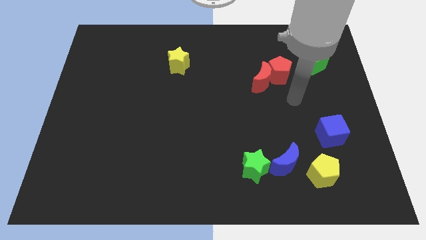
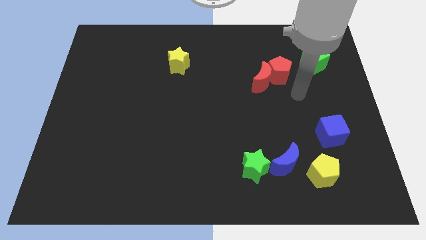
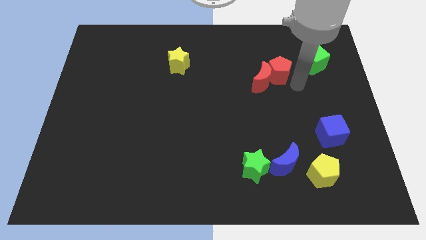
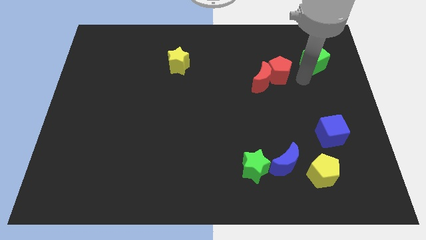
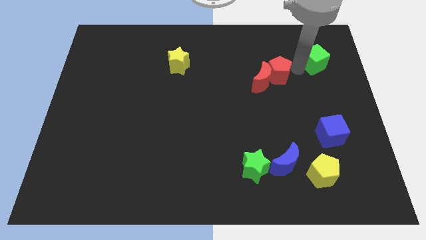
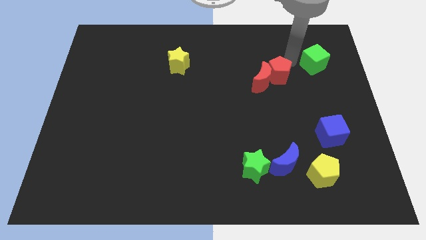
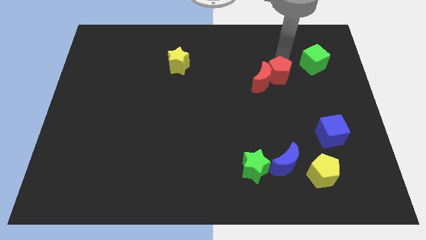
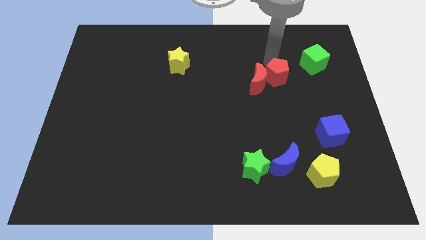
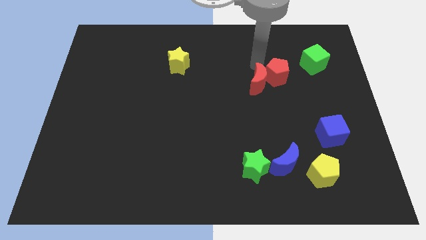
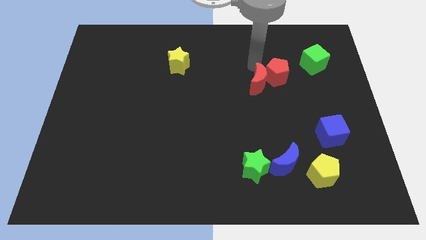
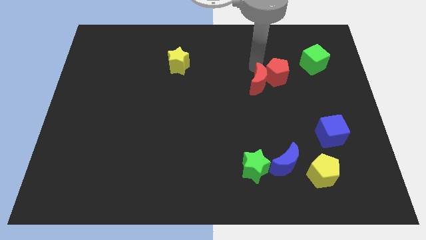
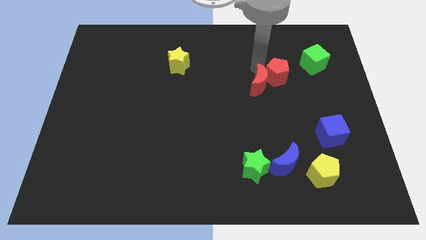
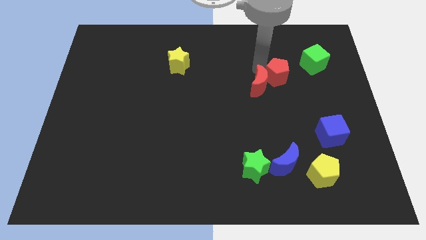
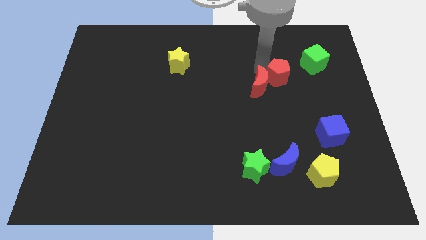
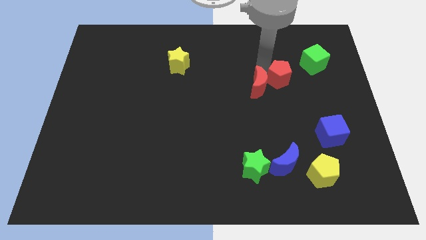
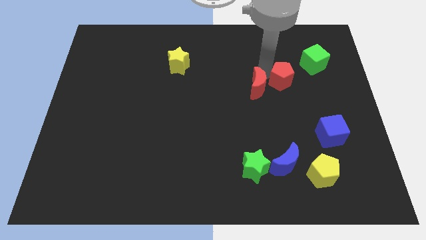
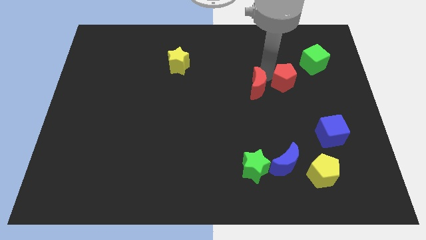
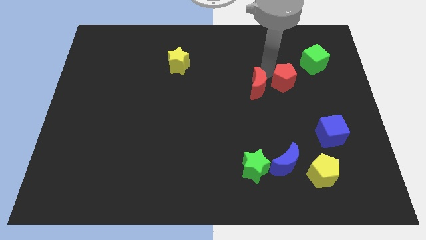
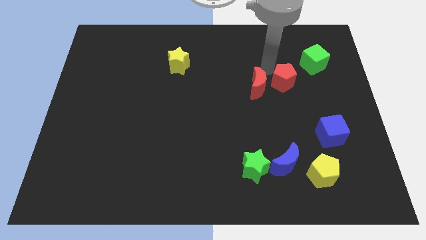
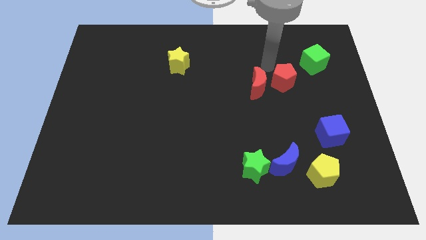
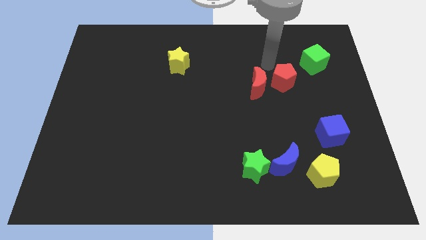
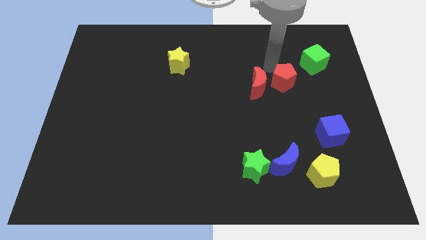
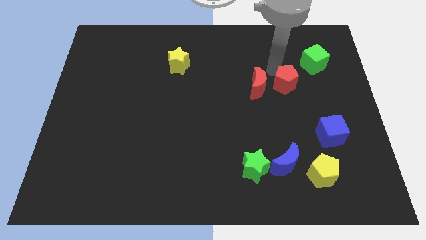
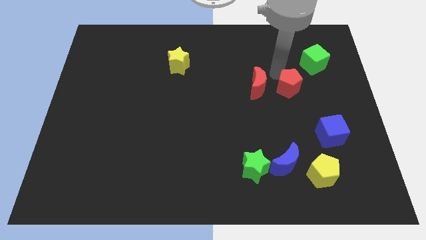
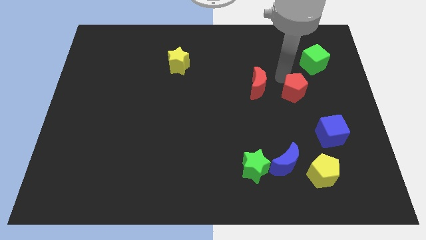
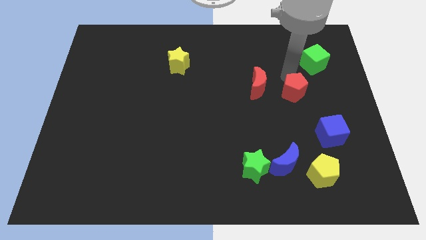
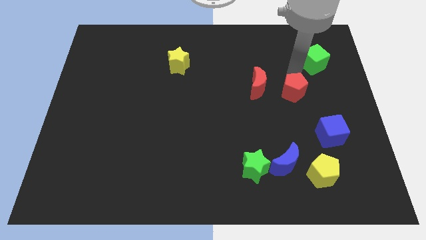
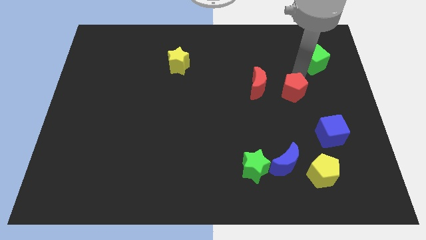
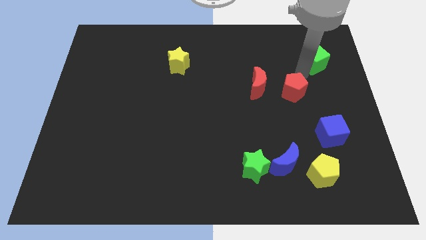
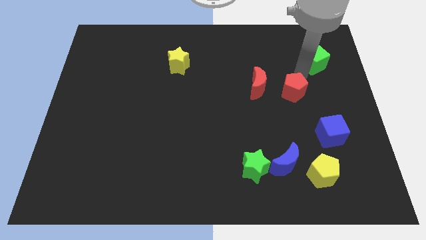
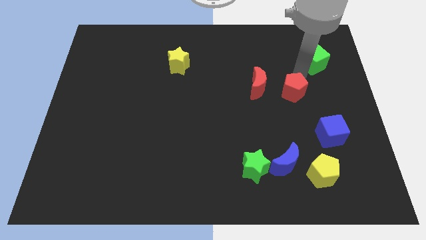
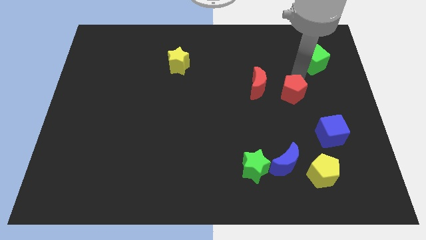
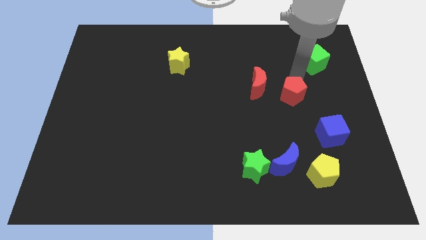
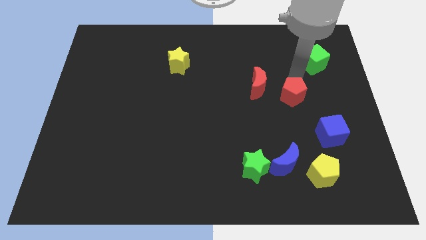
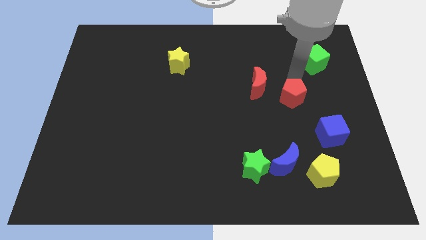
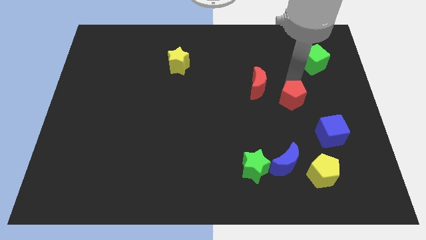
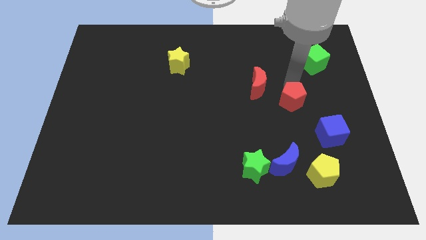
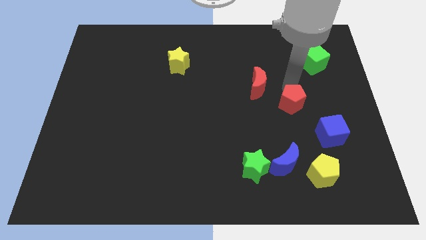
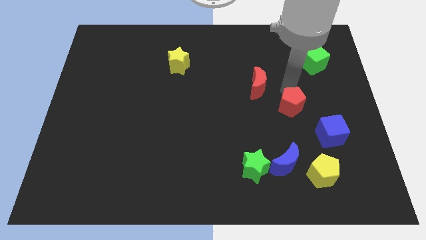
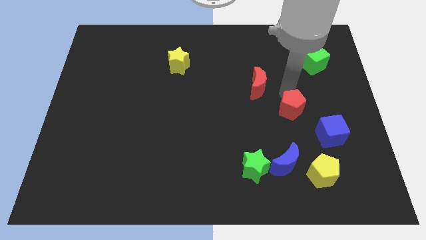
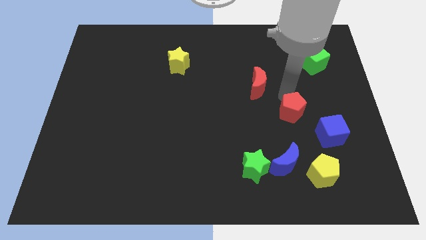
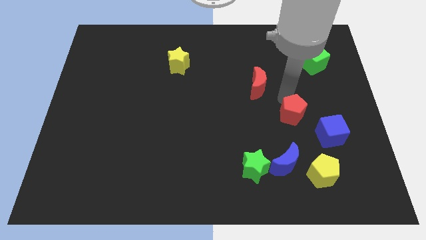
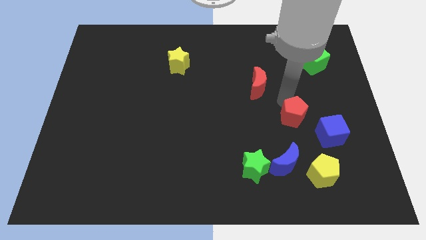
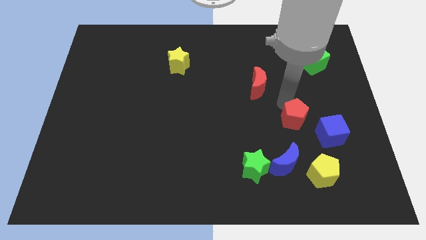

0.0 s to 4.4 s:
put the red pentagon just left of the blue cube

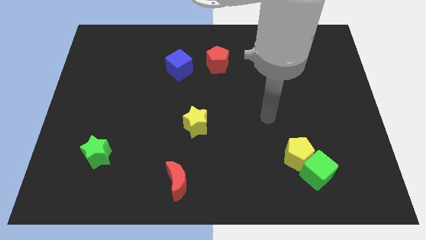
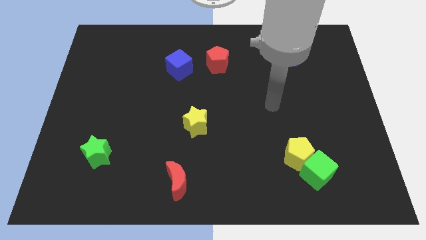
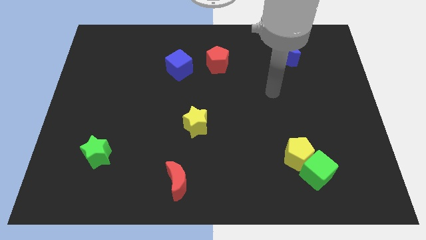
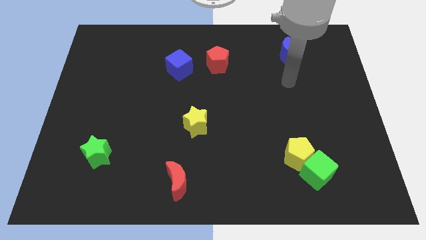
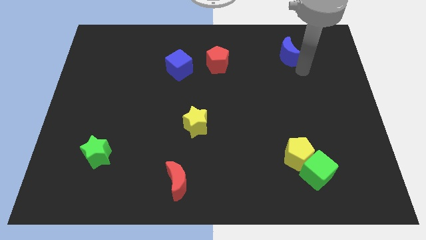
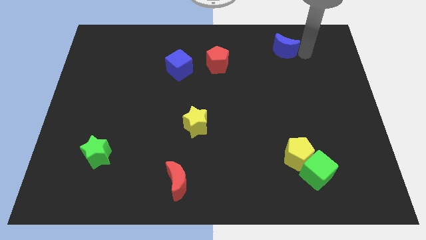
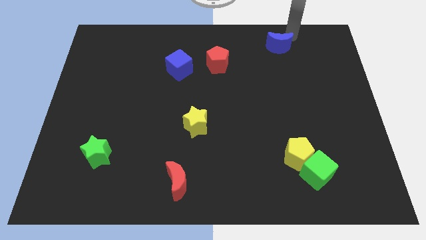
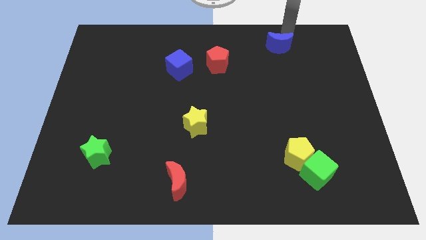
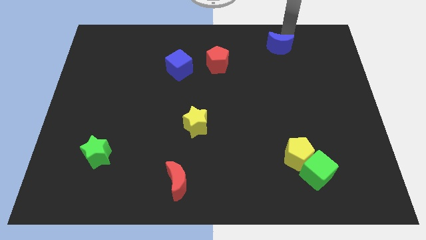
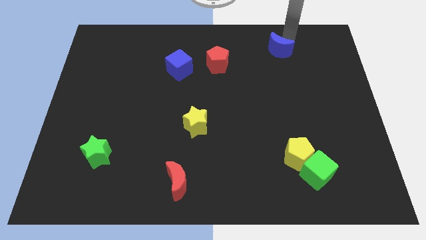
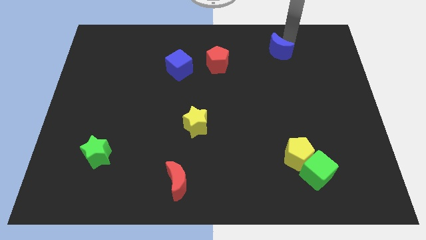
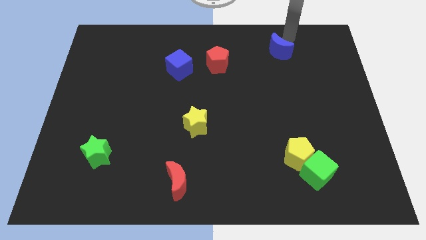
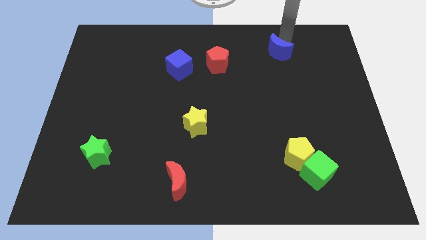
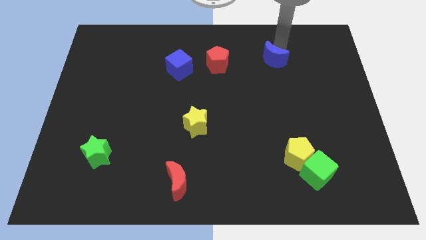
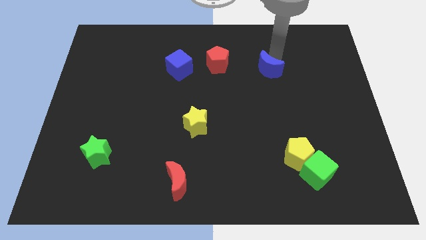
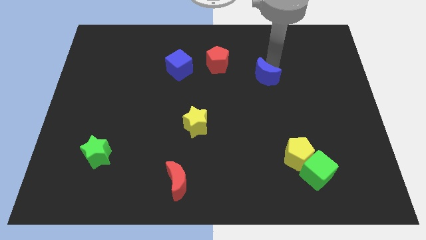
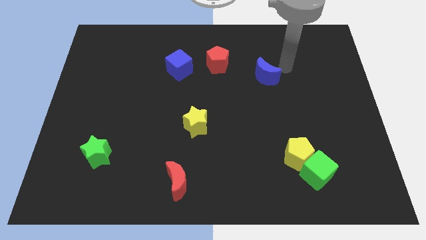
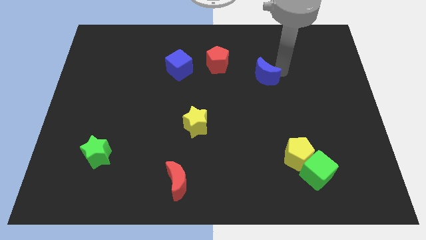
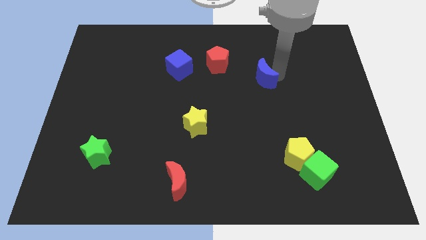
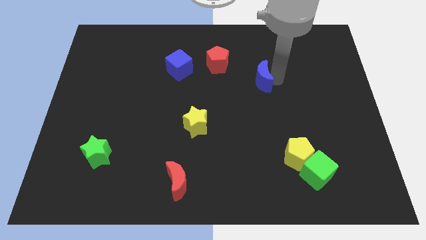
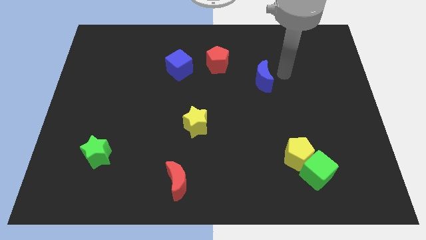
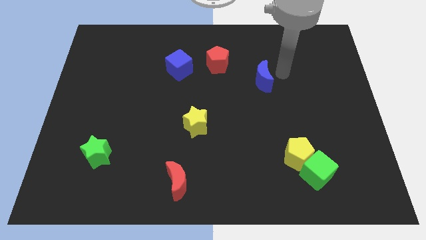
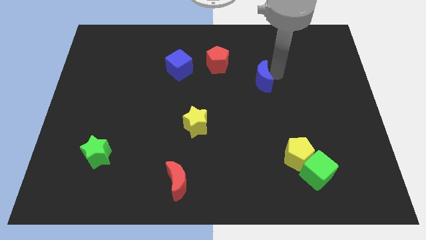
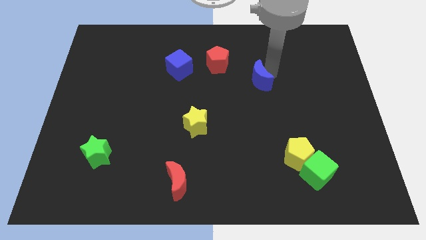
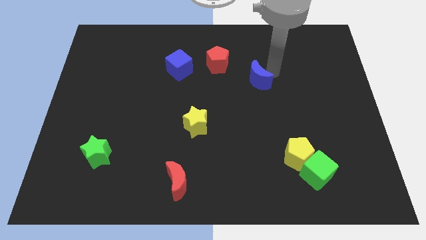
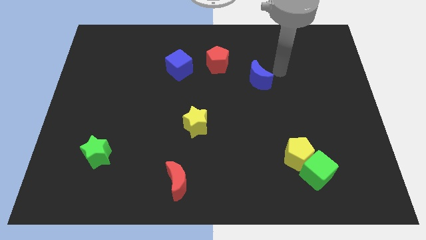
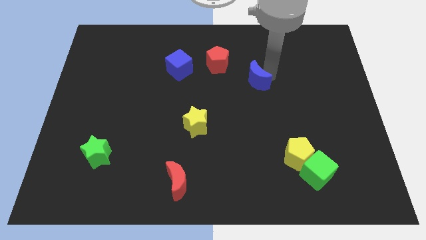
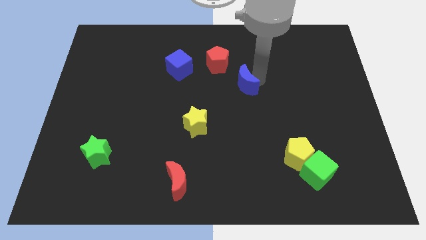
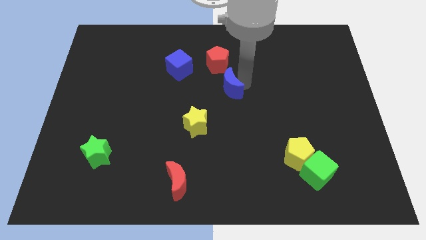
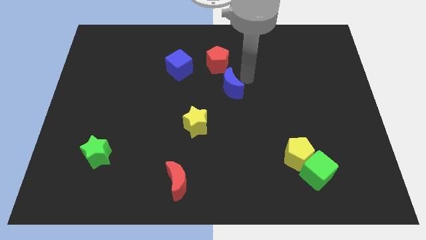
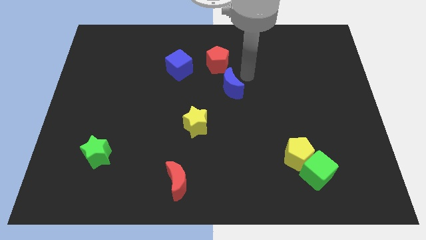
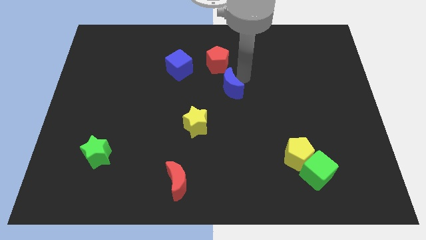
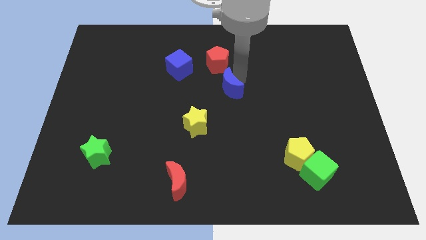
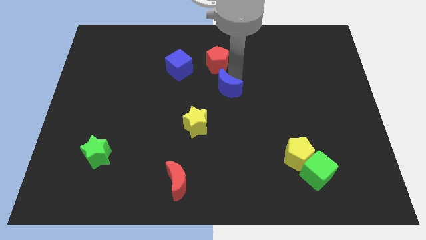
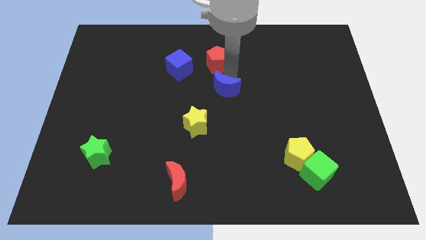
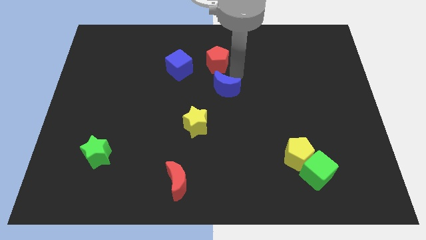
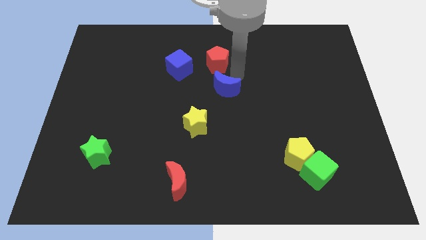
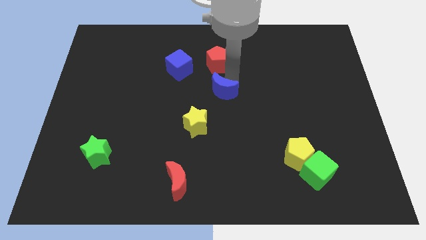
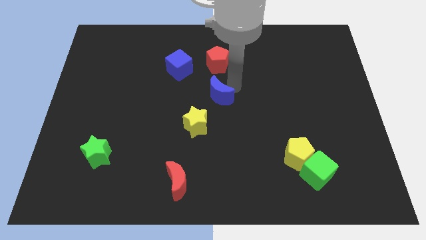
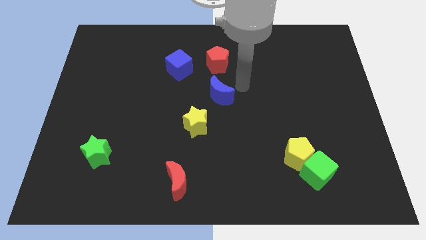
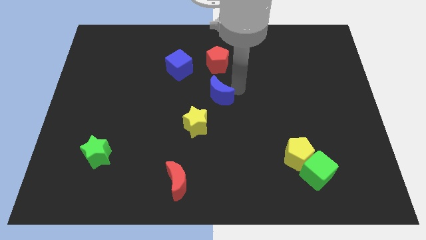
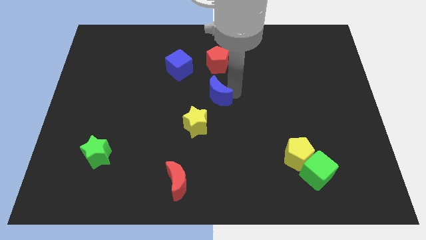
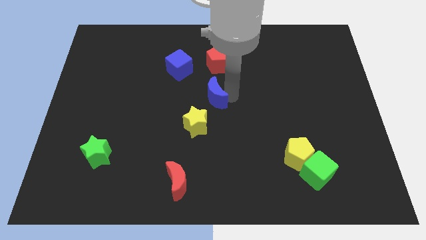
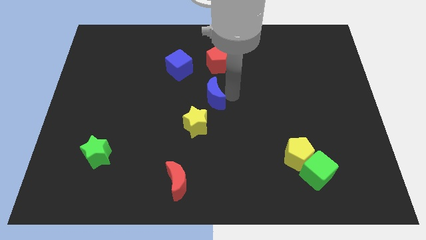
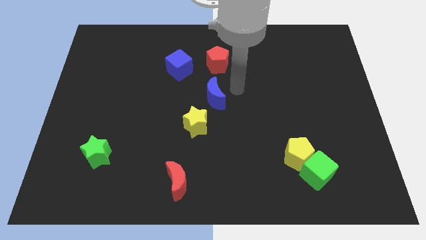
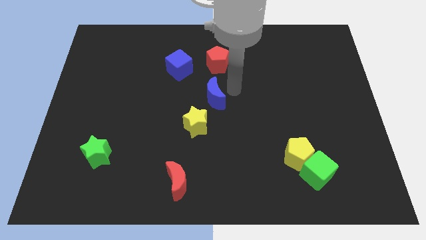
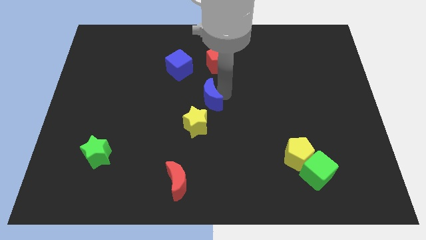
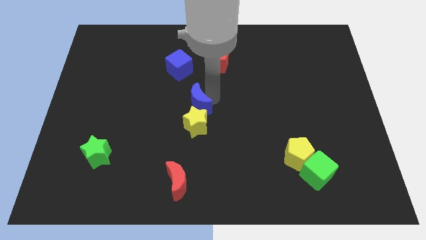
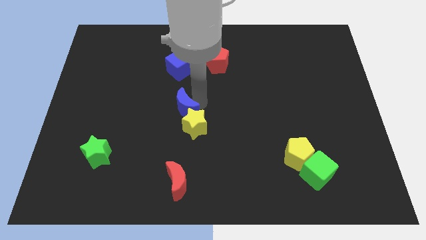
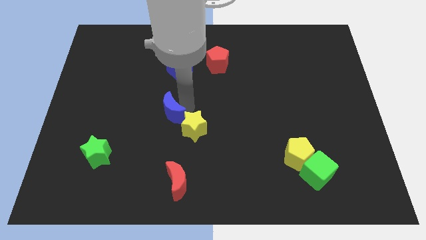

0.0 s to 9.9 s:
move the blue moon just left of the yellow star
